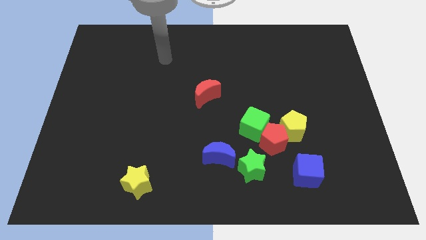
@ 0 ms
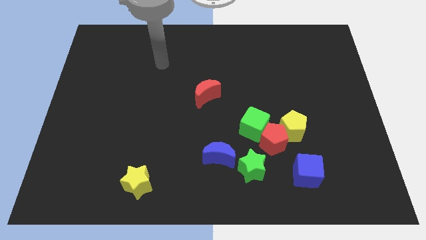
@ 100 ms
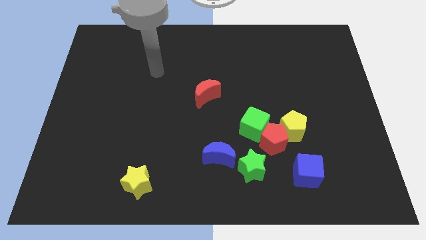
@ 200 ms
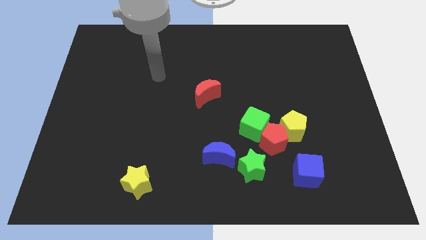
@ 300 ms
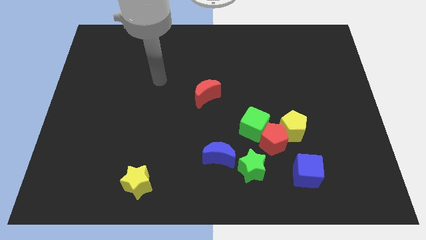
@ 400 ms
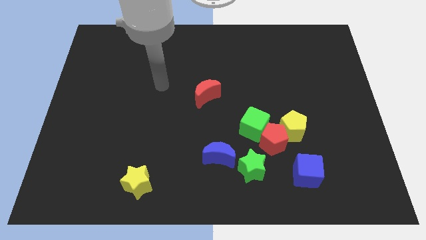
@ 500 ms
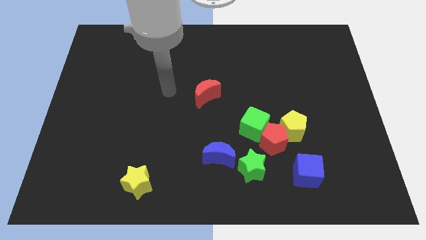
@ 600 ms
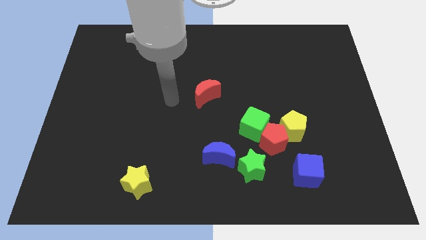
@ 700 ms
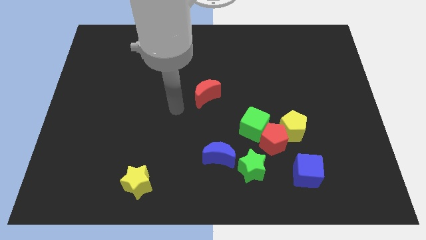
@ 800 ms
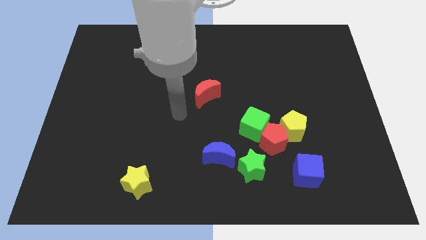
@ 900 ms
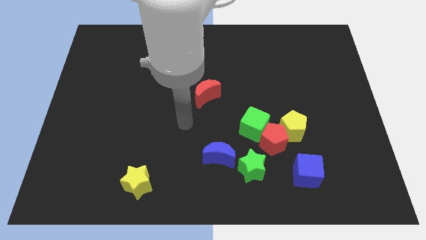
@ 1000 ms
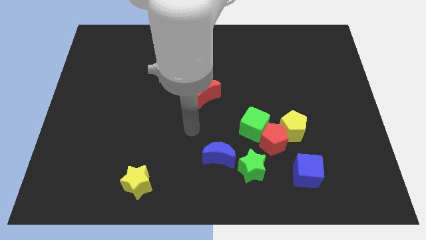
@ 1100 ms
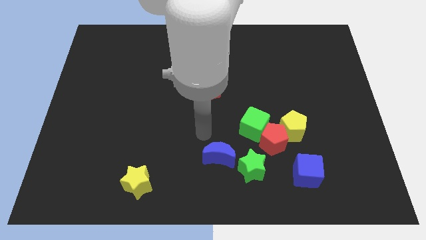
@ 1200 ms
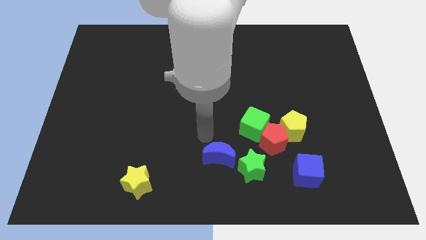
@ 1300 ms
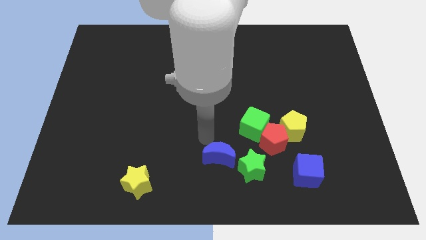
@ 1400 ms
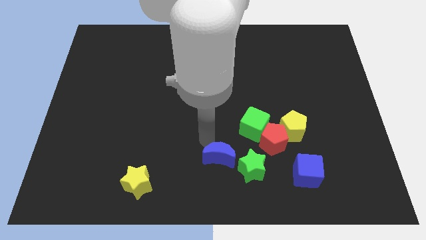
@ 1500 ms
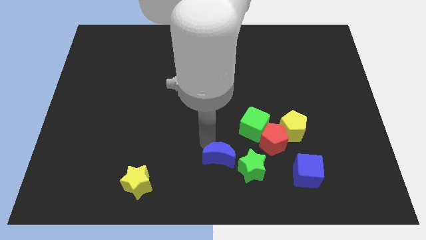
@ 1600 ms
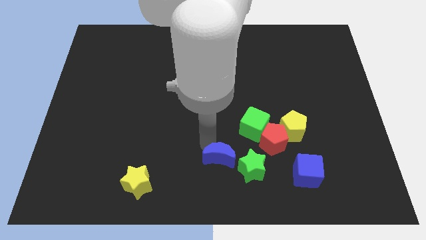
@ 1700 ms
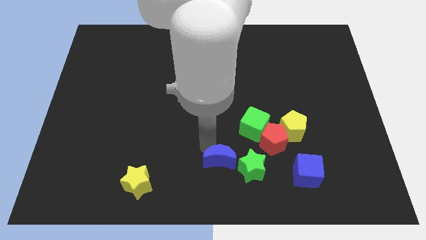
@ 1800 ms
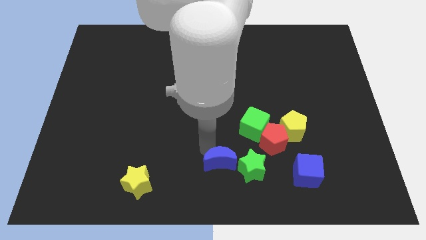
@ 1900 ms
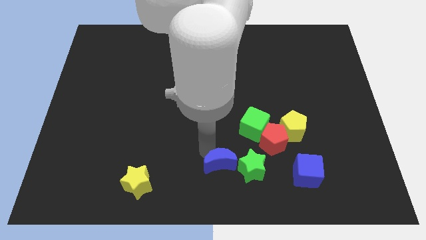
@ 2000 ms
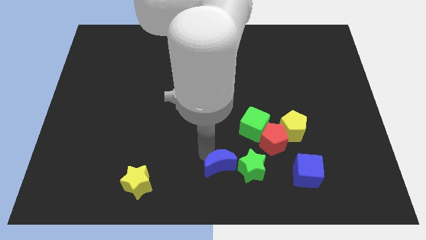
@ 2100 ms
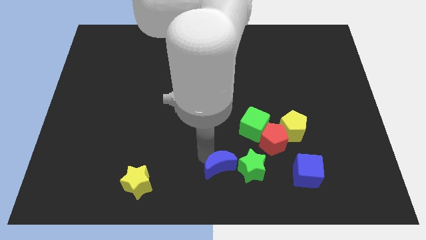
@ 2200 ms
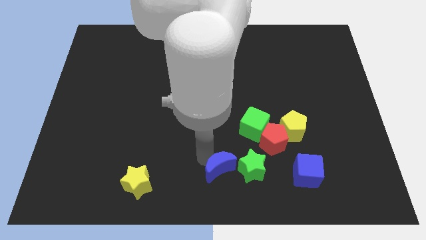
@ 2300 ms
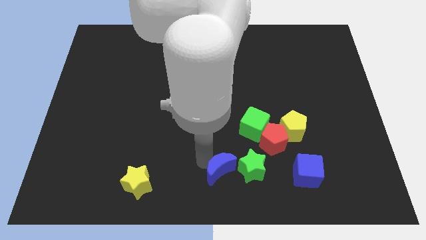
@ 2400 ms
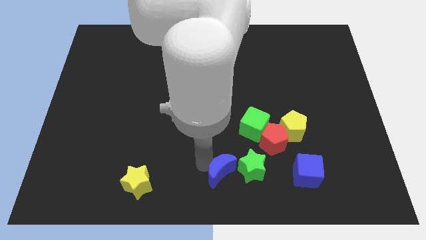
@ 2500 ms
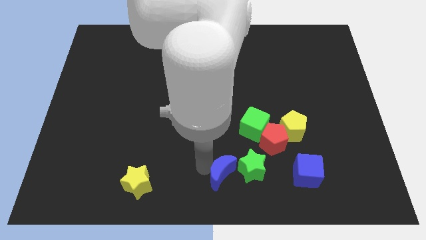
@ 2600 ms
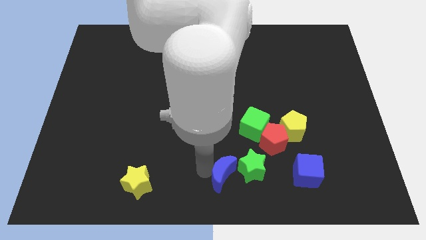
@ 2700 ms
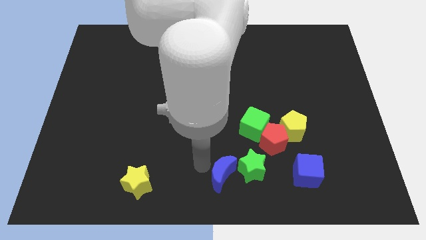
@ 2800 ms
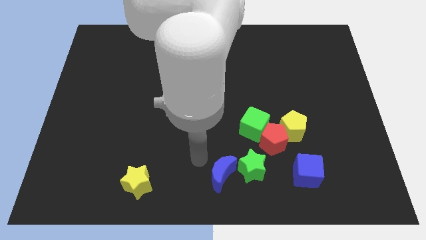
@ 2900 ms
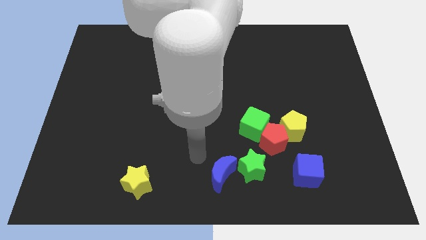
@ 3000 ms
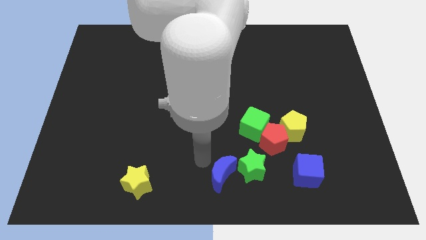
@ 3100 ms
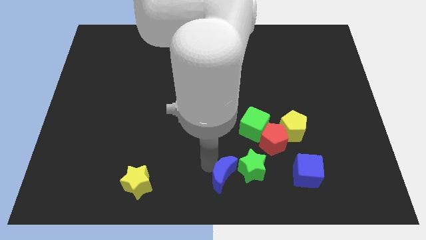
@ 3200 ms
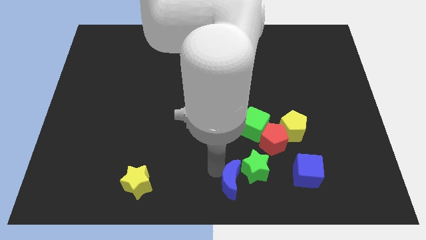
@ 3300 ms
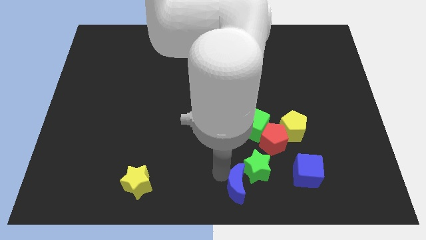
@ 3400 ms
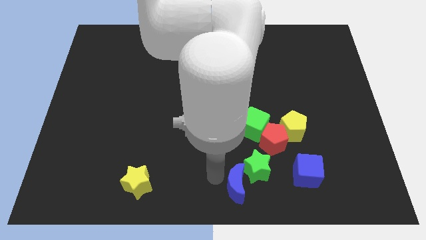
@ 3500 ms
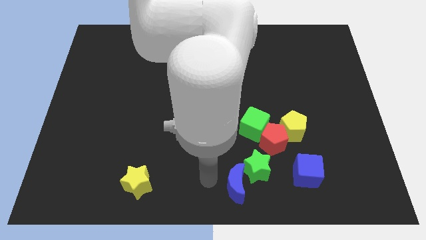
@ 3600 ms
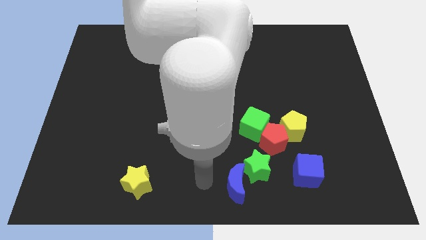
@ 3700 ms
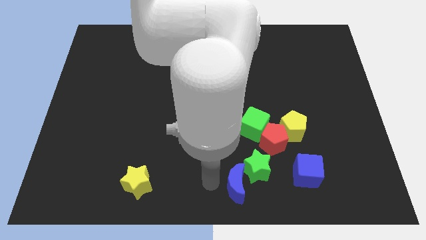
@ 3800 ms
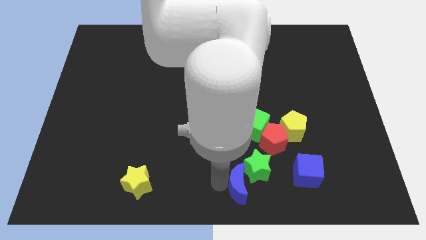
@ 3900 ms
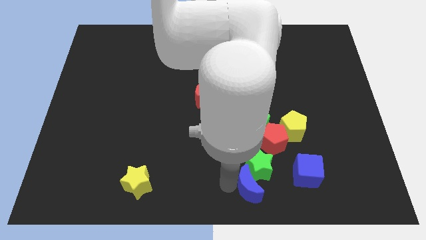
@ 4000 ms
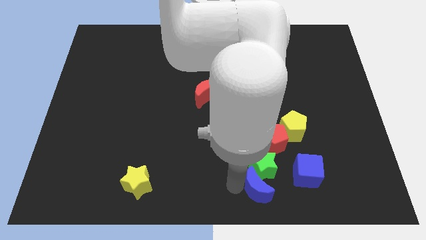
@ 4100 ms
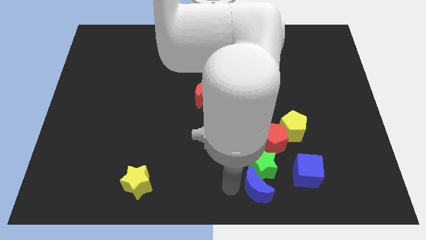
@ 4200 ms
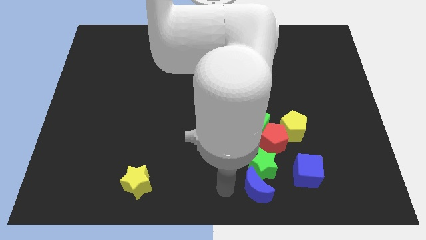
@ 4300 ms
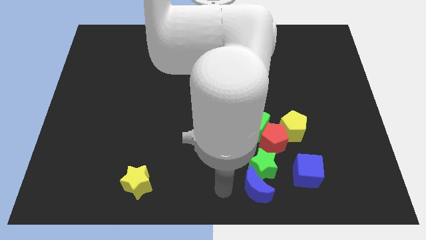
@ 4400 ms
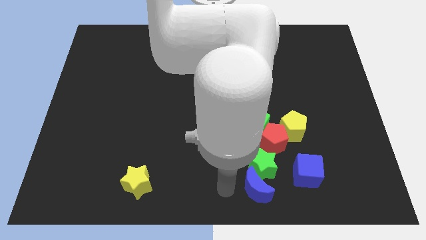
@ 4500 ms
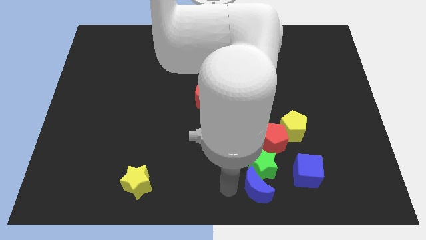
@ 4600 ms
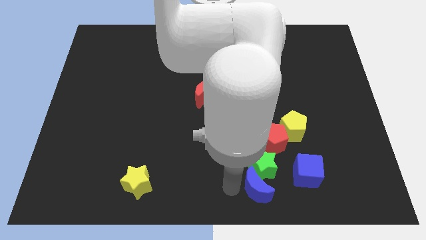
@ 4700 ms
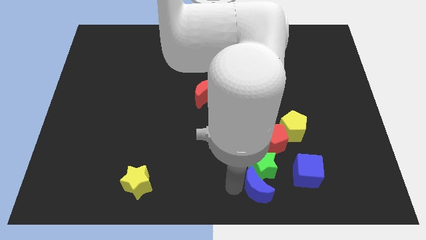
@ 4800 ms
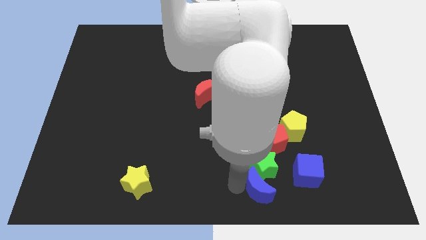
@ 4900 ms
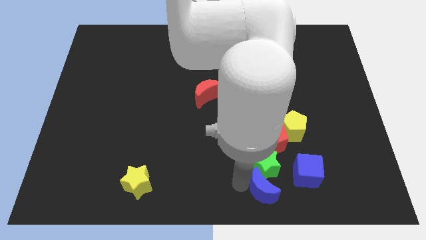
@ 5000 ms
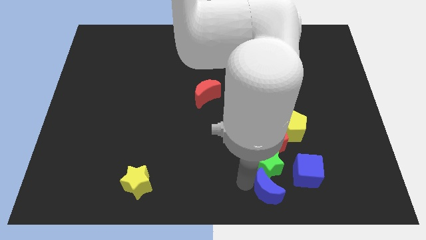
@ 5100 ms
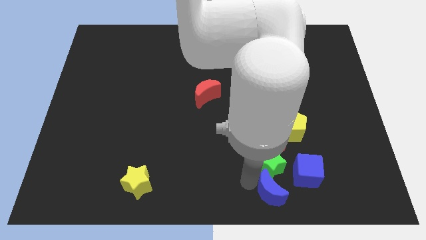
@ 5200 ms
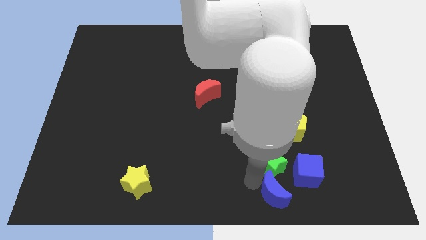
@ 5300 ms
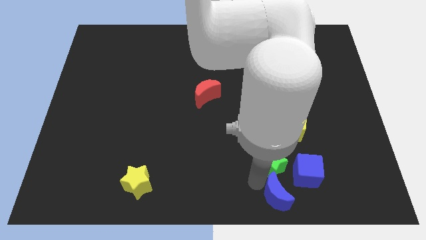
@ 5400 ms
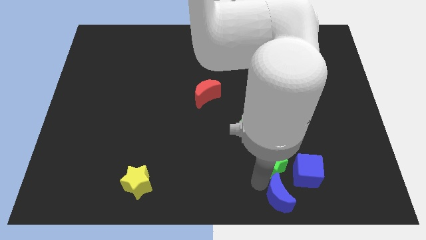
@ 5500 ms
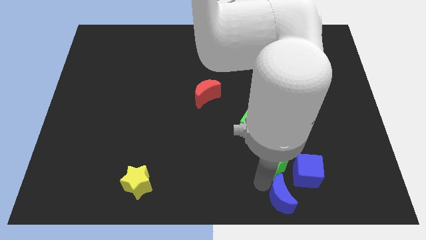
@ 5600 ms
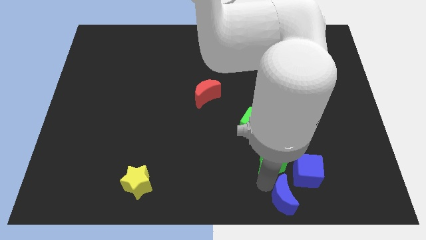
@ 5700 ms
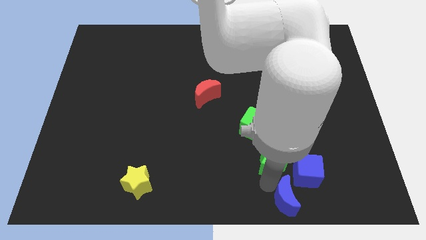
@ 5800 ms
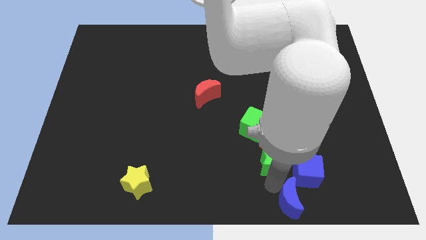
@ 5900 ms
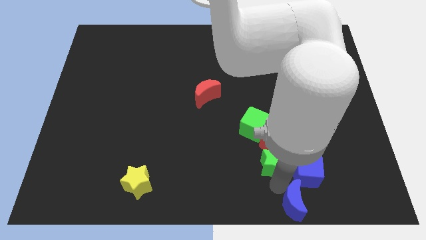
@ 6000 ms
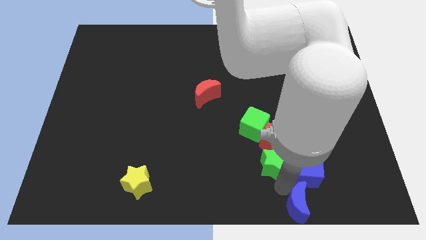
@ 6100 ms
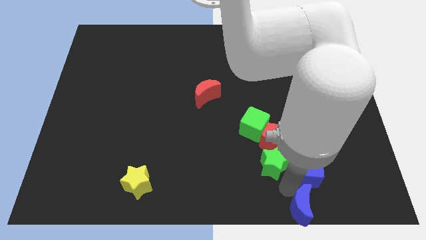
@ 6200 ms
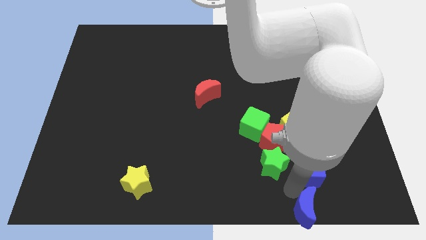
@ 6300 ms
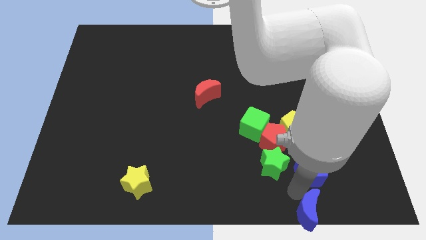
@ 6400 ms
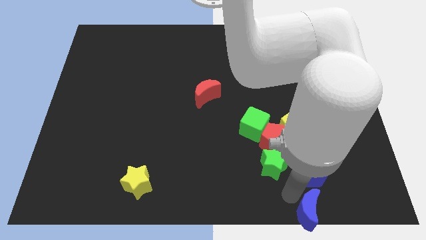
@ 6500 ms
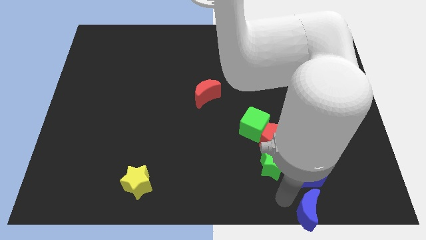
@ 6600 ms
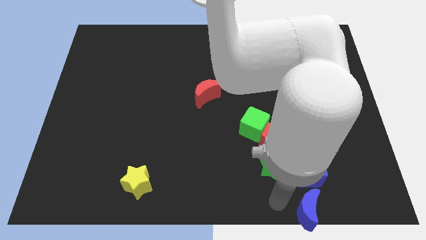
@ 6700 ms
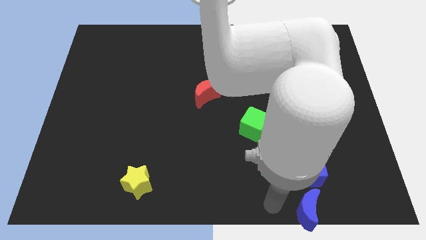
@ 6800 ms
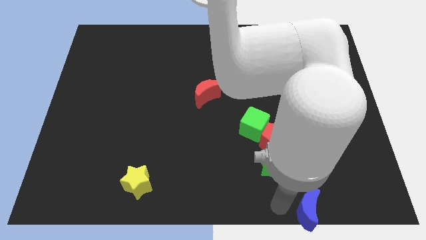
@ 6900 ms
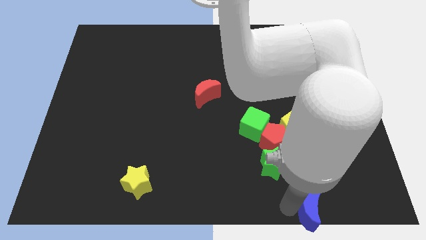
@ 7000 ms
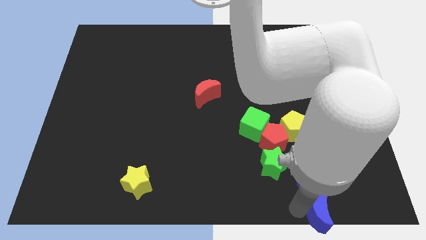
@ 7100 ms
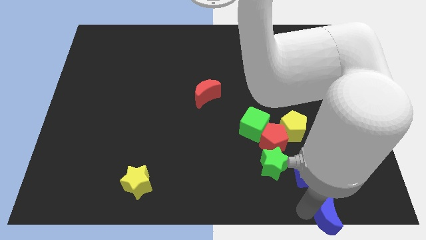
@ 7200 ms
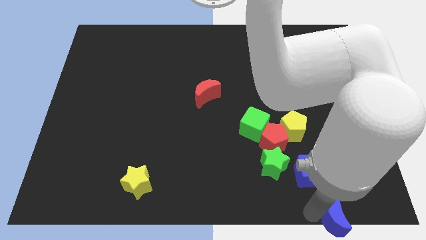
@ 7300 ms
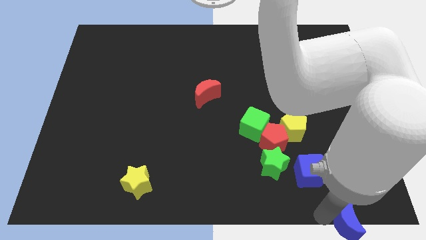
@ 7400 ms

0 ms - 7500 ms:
put the blue moon to the bottom right corner

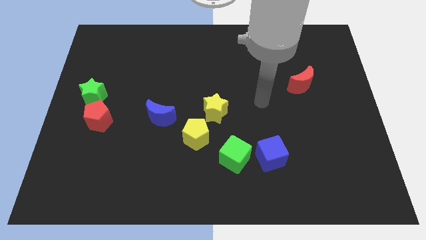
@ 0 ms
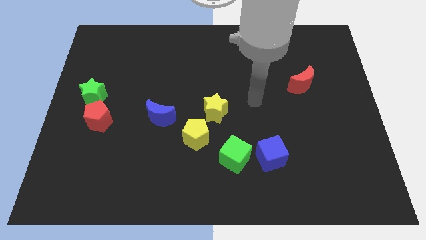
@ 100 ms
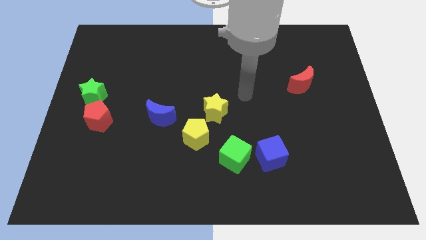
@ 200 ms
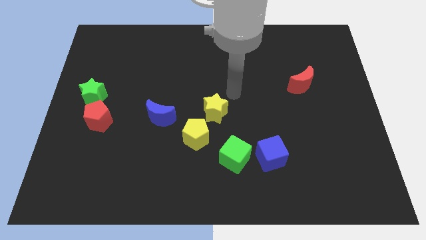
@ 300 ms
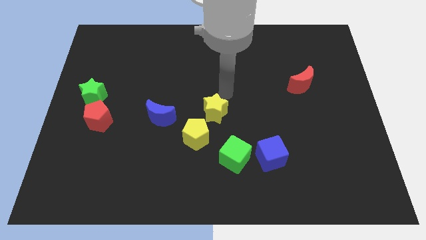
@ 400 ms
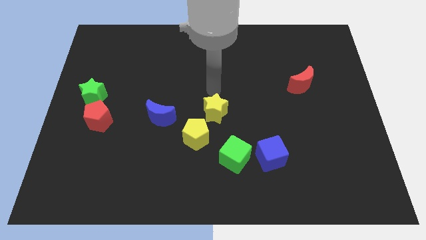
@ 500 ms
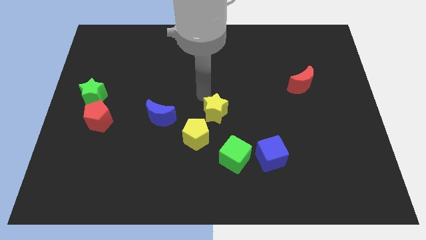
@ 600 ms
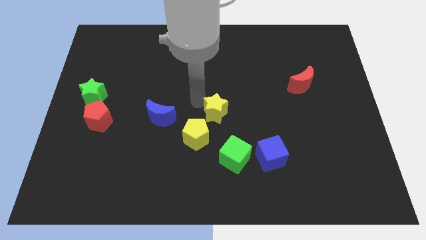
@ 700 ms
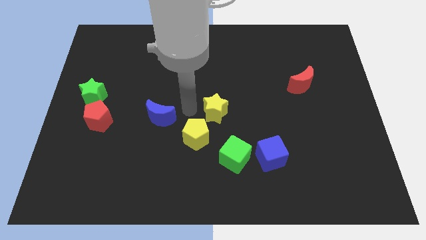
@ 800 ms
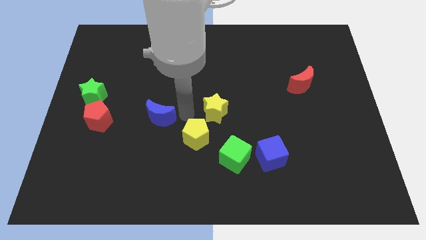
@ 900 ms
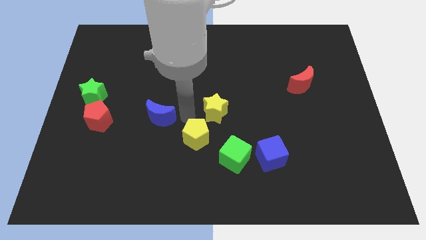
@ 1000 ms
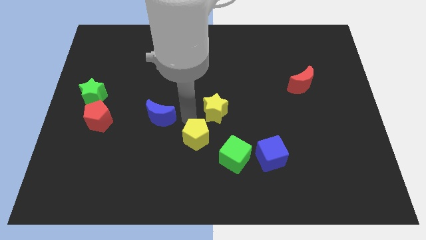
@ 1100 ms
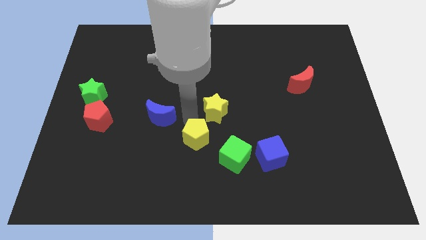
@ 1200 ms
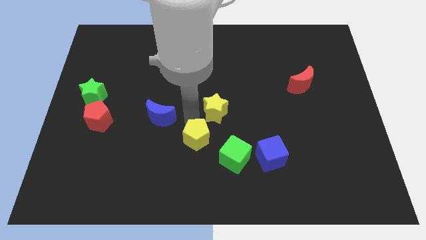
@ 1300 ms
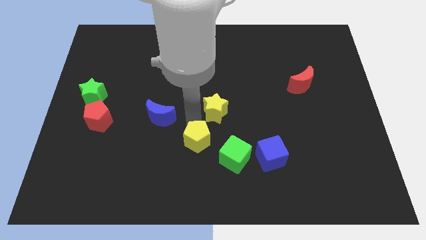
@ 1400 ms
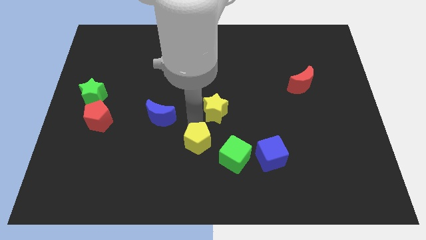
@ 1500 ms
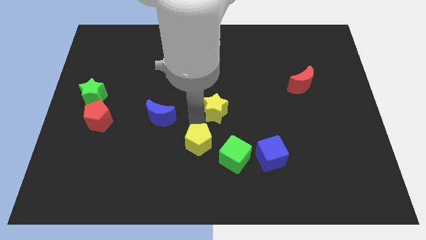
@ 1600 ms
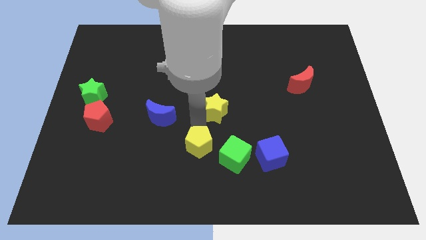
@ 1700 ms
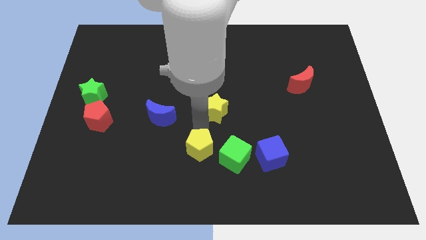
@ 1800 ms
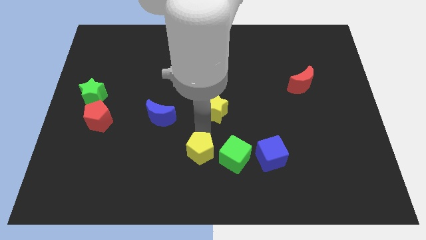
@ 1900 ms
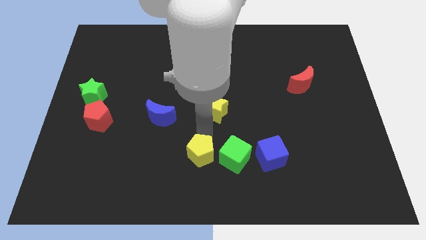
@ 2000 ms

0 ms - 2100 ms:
slide the yellow pentagon to the bottom side
